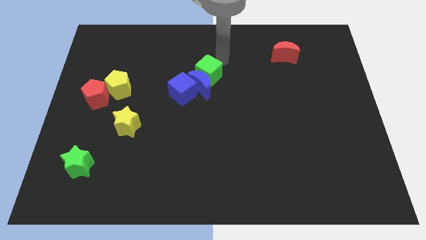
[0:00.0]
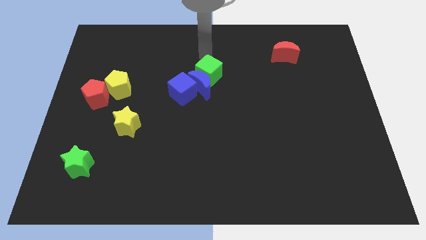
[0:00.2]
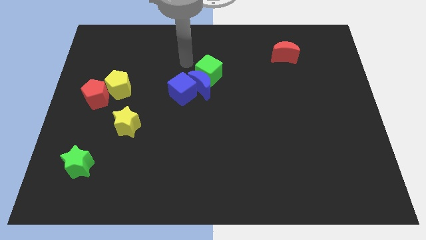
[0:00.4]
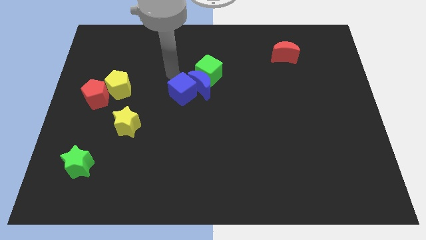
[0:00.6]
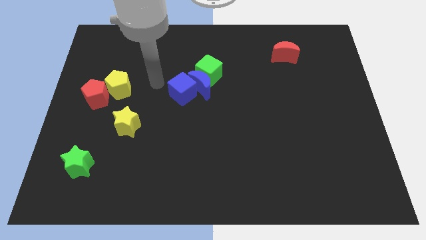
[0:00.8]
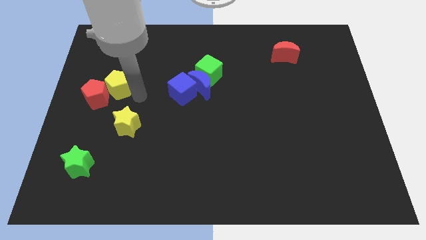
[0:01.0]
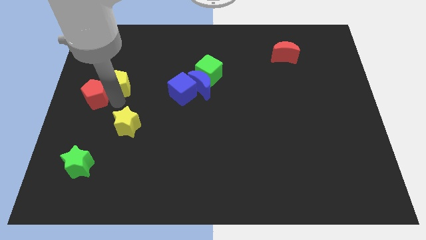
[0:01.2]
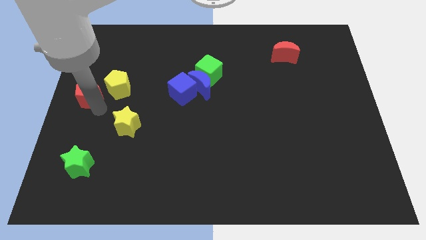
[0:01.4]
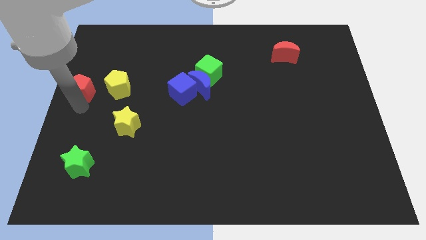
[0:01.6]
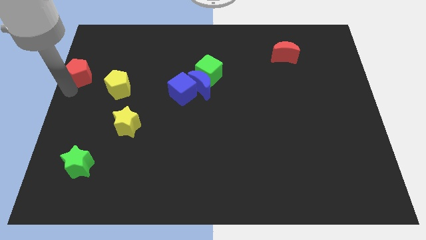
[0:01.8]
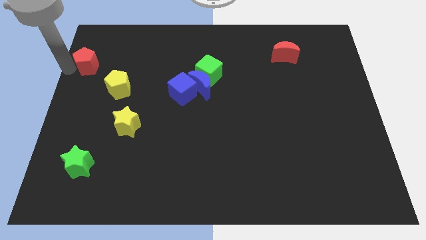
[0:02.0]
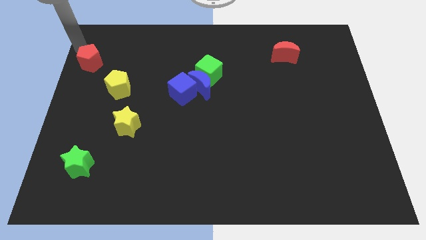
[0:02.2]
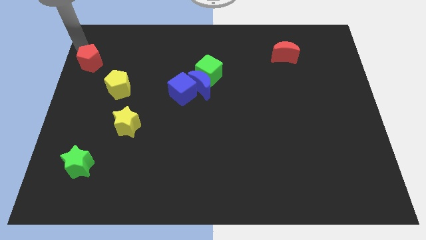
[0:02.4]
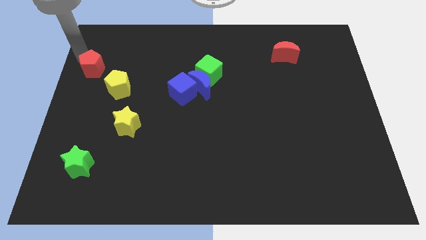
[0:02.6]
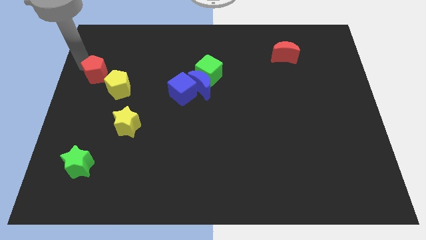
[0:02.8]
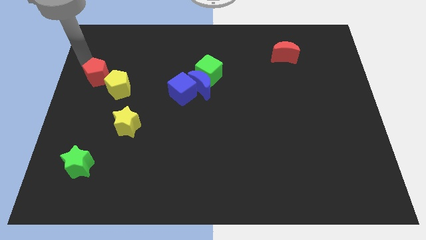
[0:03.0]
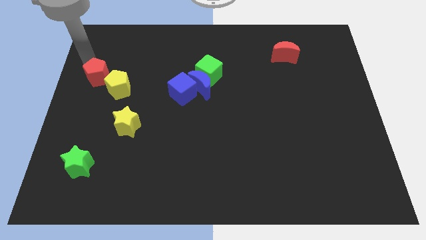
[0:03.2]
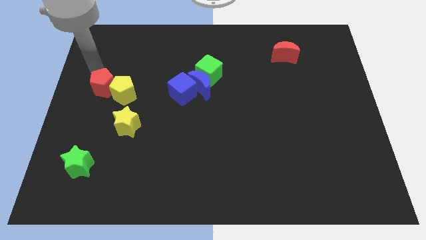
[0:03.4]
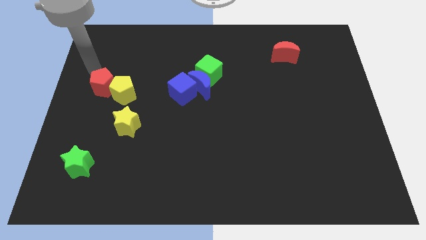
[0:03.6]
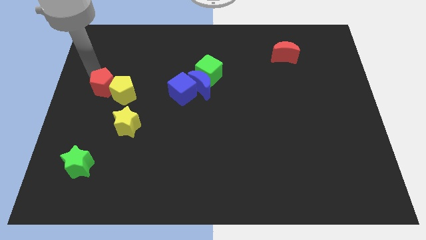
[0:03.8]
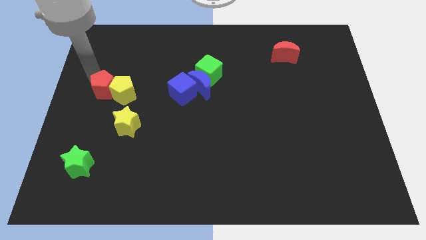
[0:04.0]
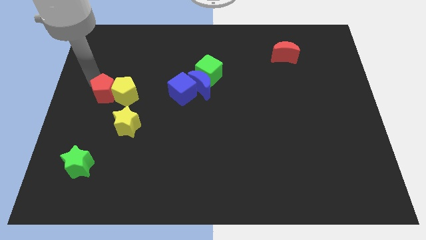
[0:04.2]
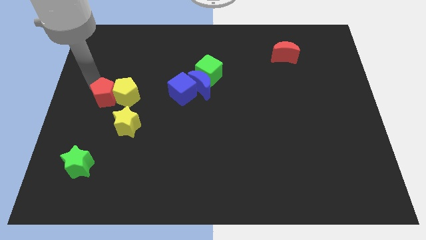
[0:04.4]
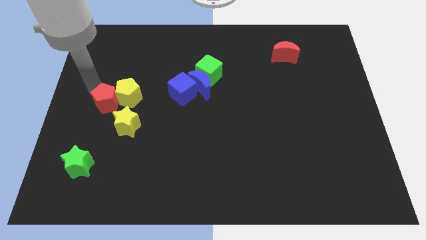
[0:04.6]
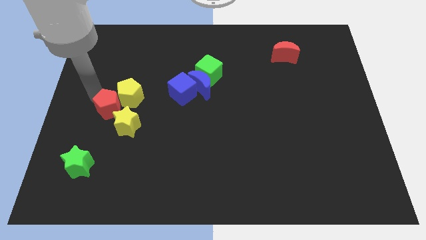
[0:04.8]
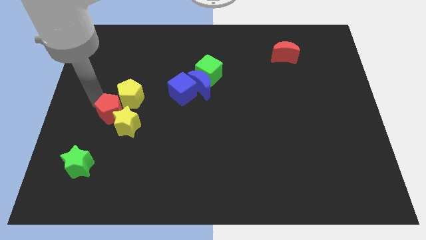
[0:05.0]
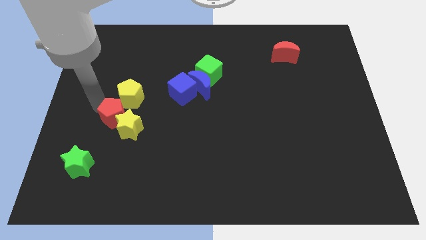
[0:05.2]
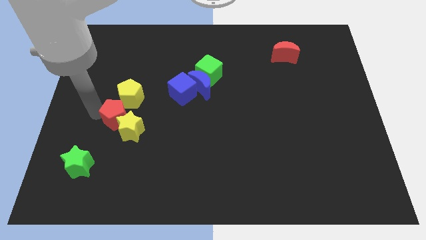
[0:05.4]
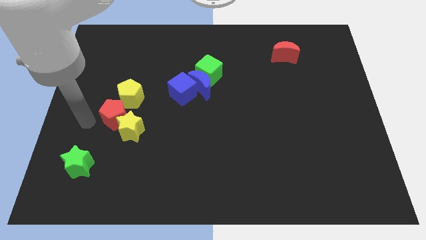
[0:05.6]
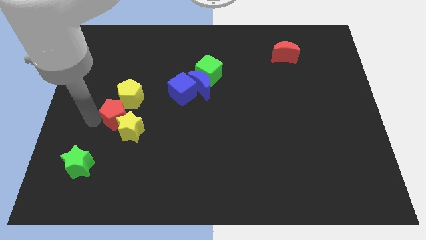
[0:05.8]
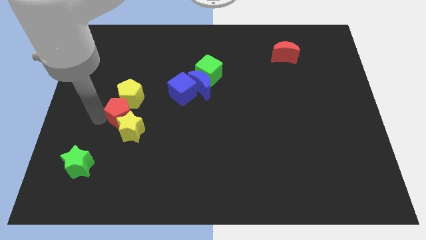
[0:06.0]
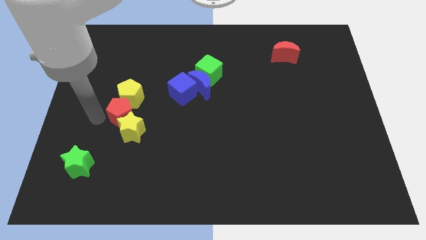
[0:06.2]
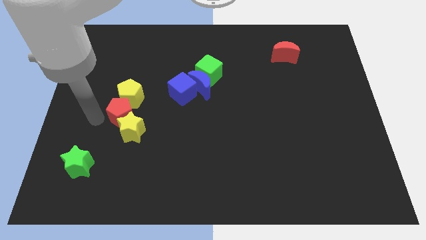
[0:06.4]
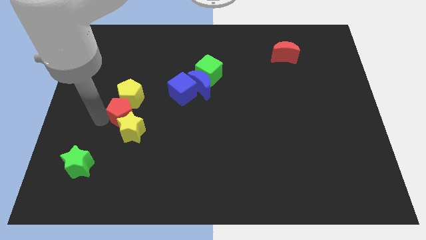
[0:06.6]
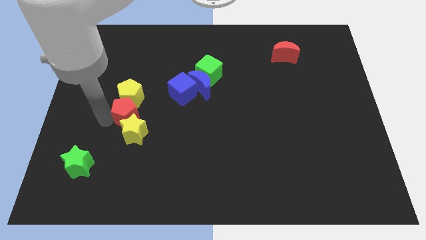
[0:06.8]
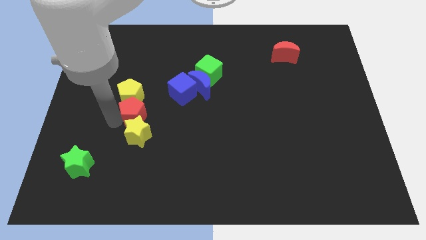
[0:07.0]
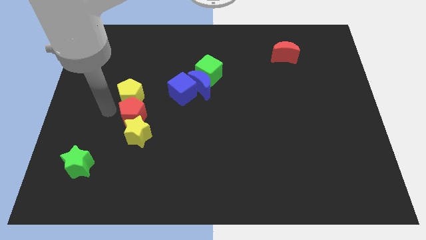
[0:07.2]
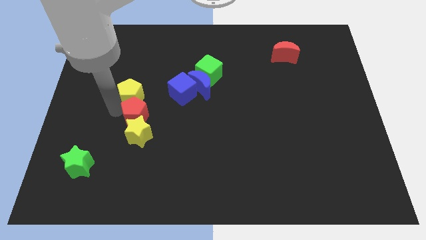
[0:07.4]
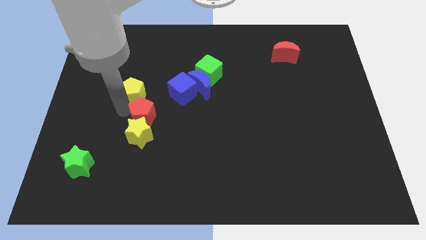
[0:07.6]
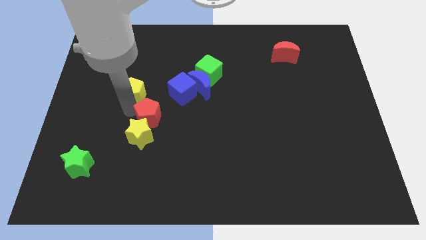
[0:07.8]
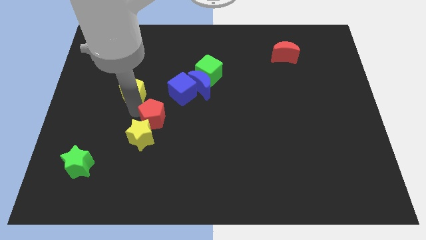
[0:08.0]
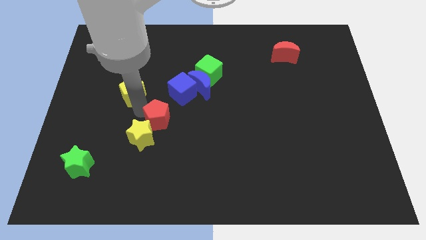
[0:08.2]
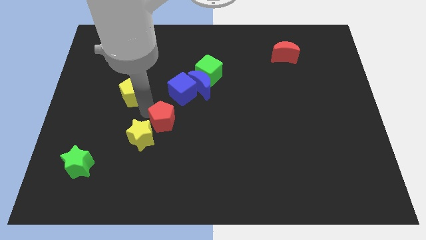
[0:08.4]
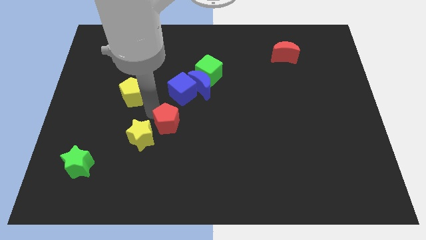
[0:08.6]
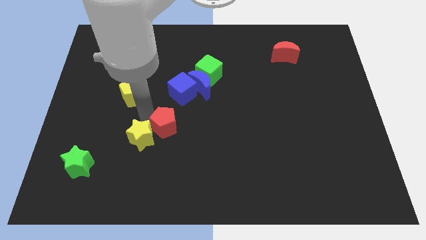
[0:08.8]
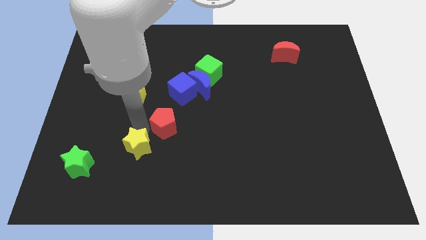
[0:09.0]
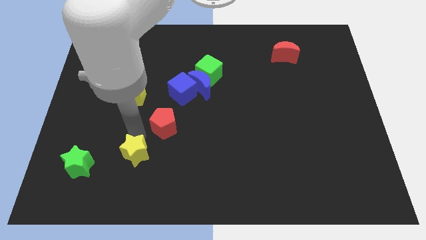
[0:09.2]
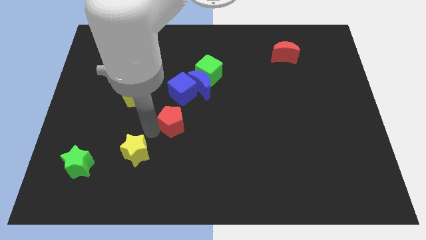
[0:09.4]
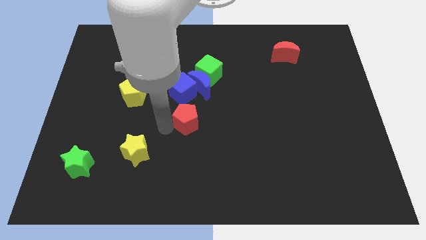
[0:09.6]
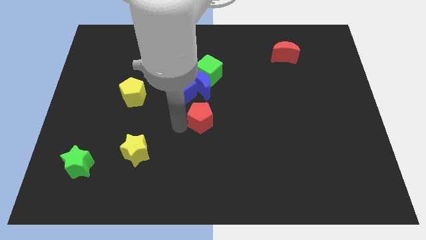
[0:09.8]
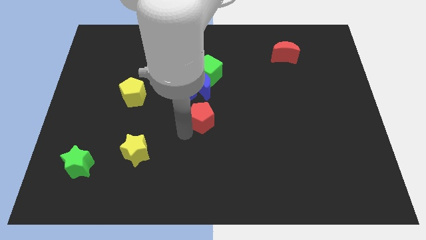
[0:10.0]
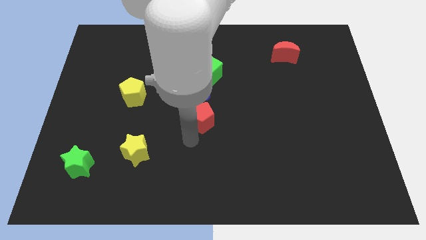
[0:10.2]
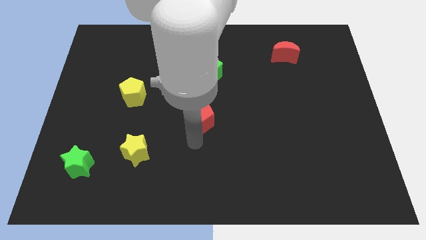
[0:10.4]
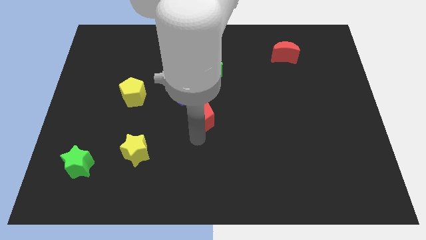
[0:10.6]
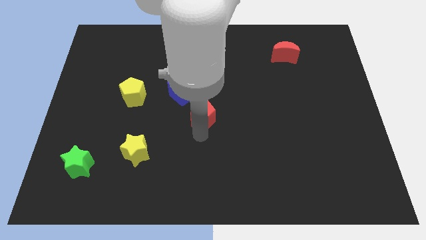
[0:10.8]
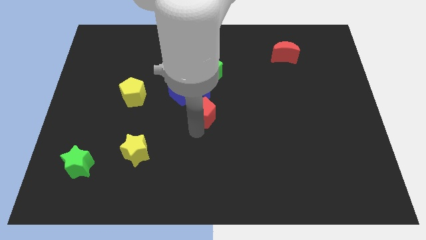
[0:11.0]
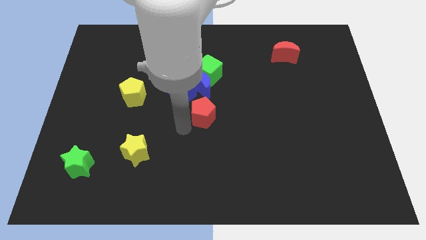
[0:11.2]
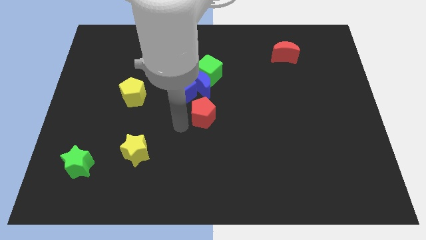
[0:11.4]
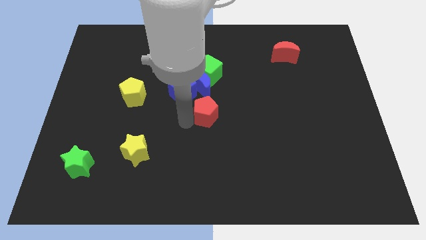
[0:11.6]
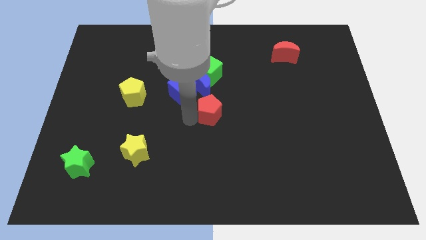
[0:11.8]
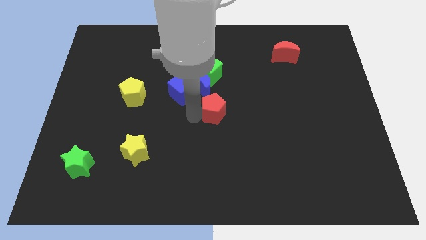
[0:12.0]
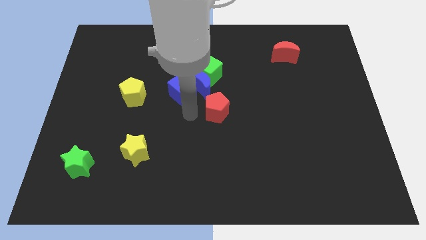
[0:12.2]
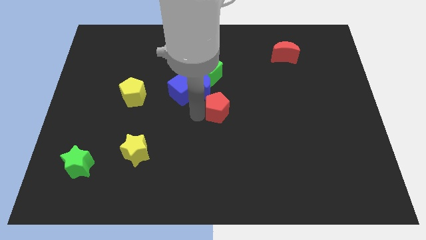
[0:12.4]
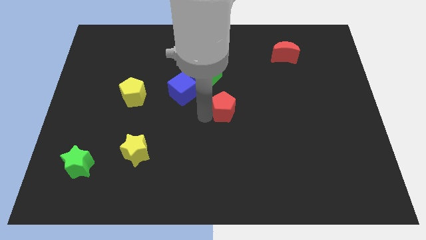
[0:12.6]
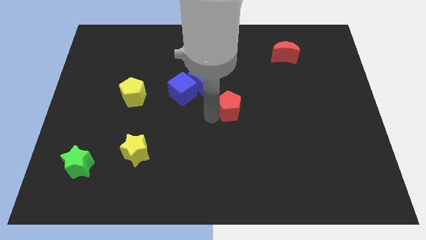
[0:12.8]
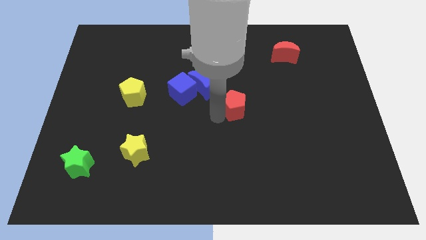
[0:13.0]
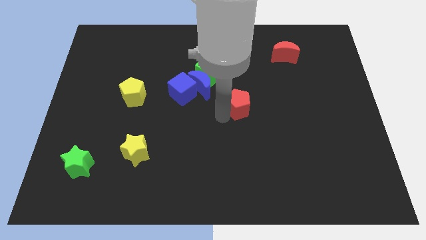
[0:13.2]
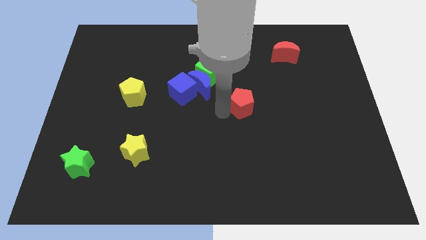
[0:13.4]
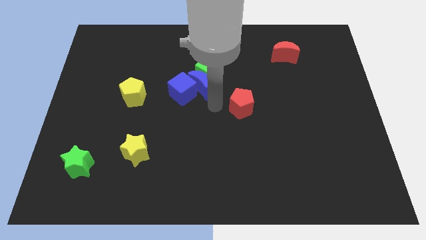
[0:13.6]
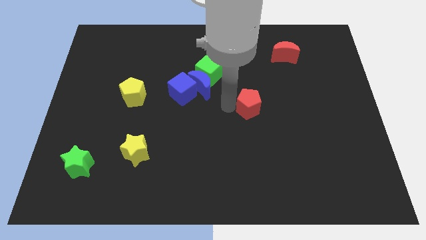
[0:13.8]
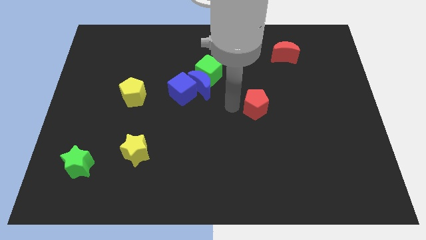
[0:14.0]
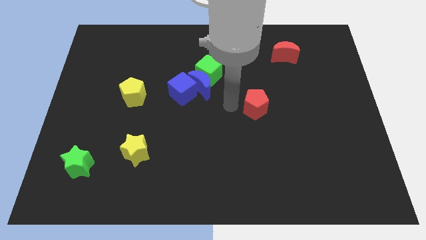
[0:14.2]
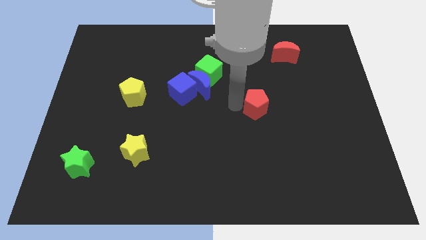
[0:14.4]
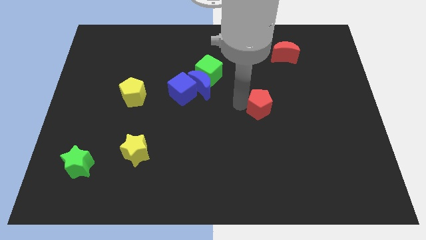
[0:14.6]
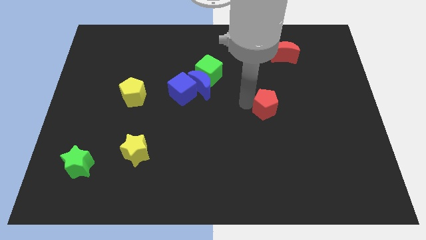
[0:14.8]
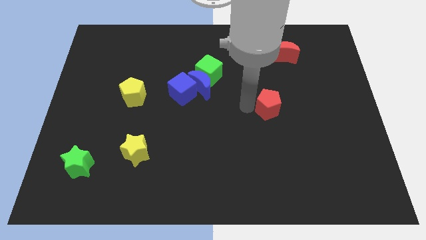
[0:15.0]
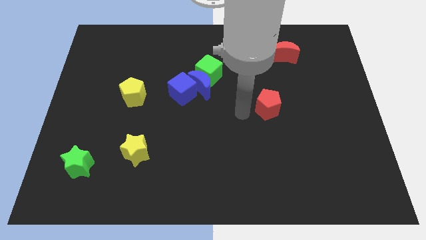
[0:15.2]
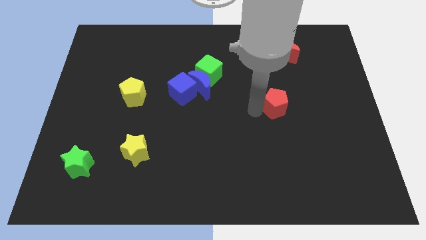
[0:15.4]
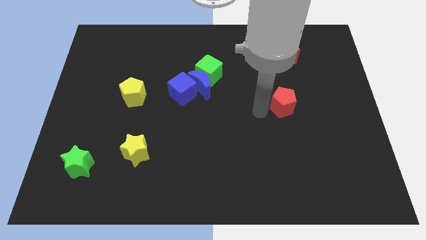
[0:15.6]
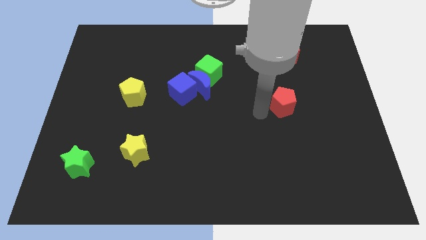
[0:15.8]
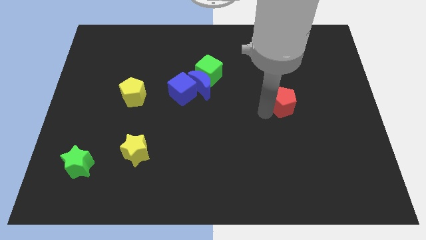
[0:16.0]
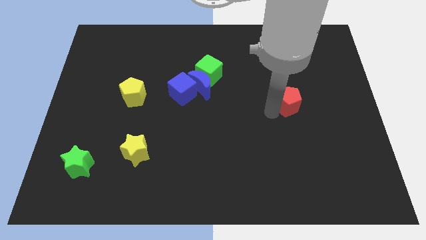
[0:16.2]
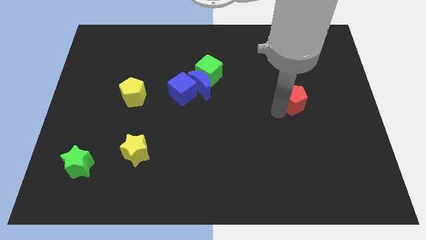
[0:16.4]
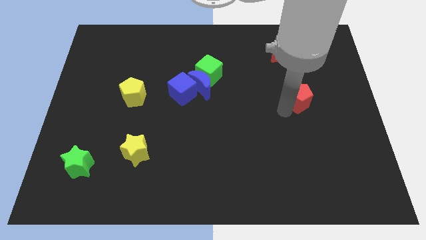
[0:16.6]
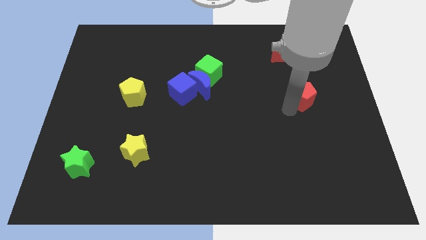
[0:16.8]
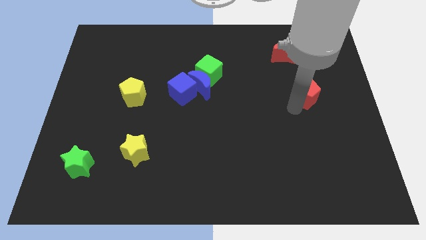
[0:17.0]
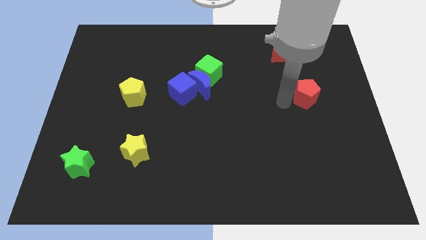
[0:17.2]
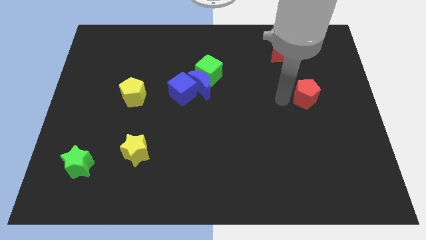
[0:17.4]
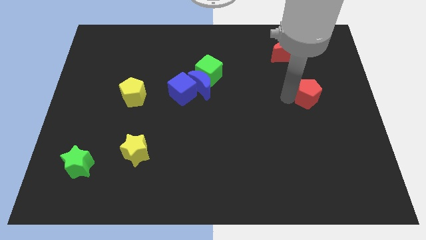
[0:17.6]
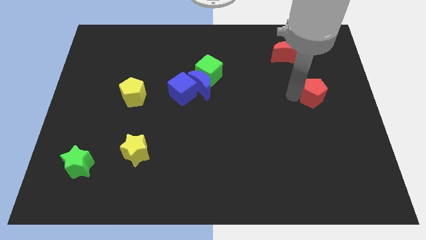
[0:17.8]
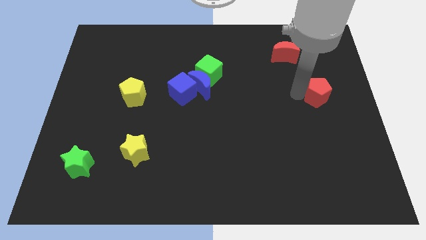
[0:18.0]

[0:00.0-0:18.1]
push the red pentagon to the right side of the board
